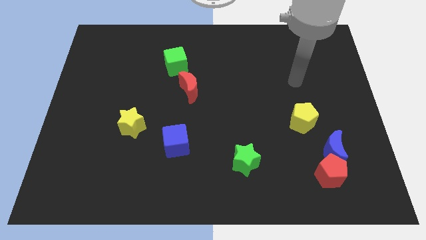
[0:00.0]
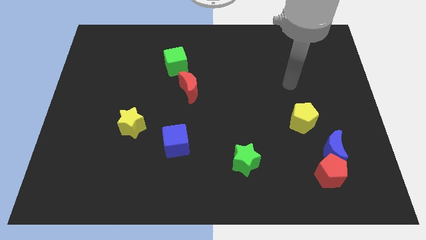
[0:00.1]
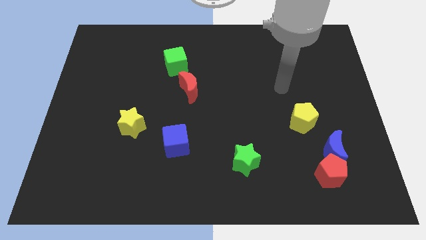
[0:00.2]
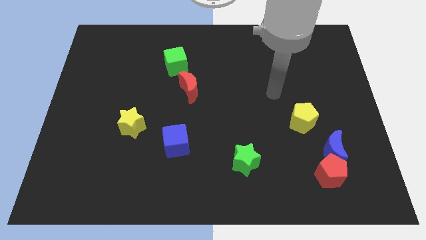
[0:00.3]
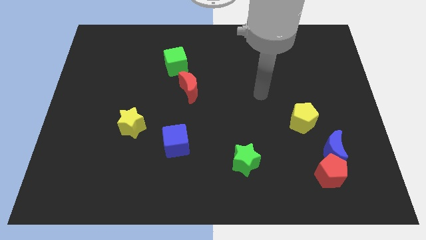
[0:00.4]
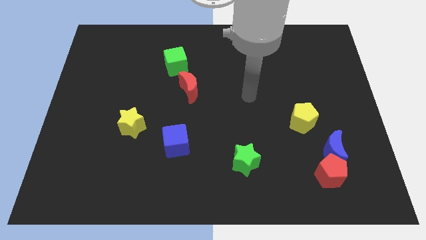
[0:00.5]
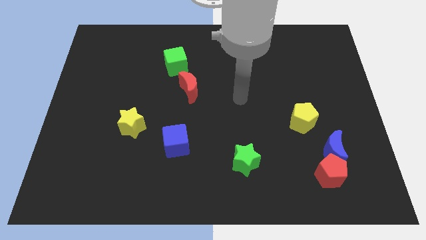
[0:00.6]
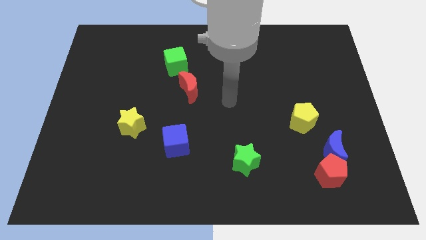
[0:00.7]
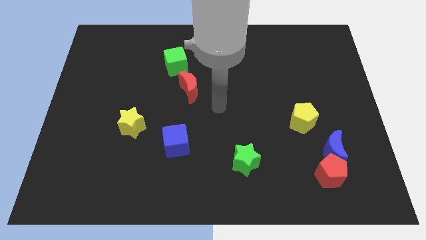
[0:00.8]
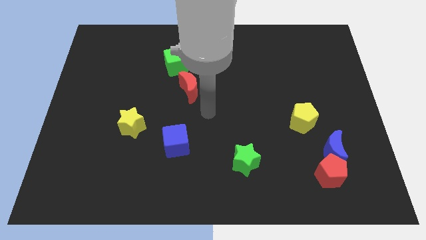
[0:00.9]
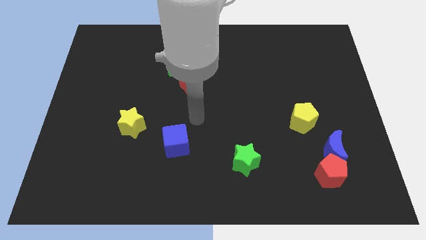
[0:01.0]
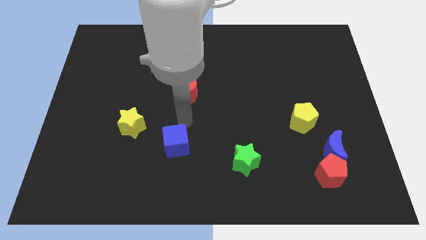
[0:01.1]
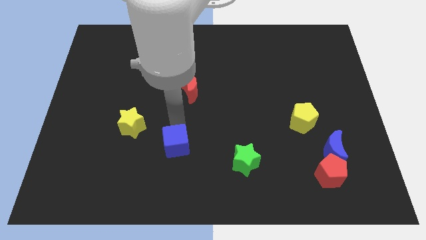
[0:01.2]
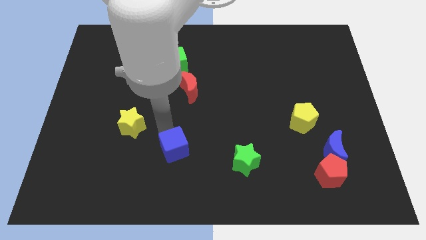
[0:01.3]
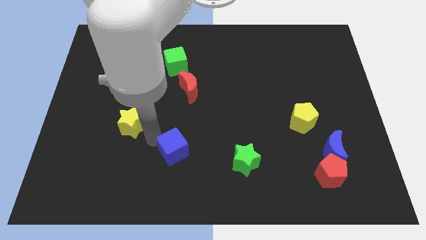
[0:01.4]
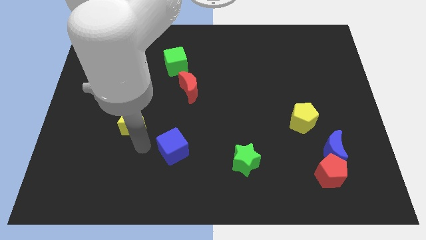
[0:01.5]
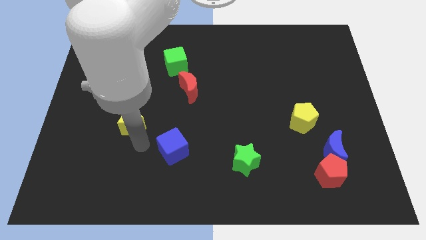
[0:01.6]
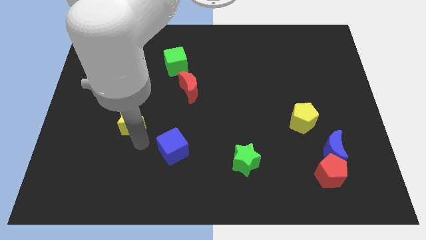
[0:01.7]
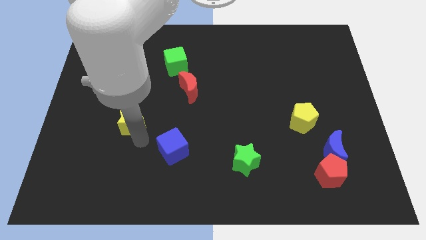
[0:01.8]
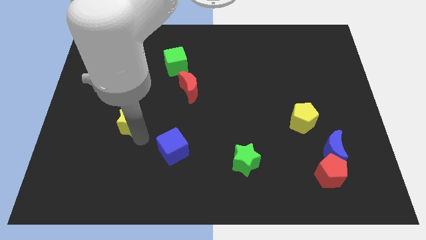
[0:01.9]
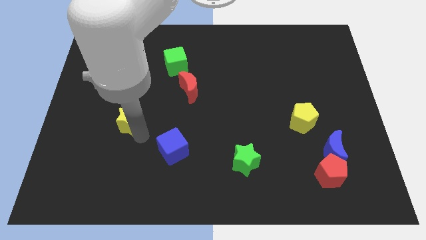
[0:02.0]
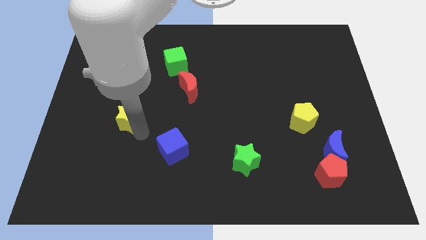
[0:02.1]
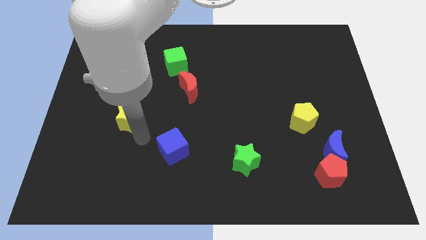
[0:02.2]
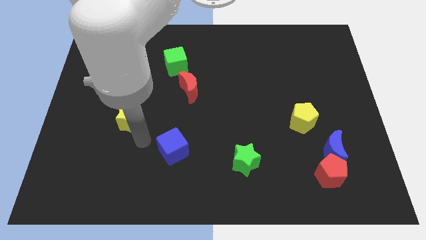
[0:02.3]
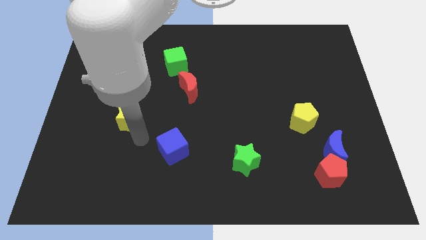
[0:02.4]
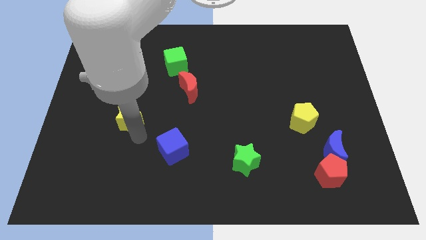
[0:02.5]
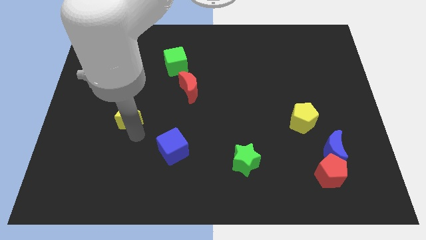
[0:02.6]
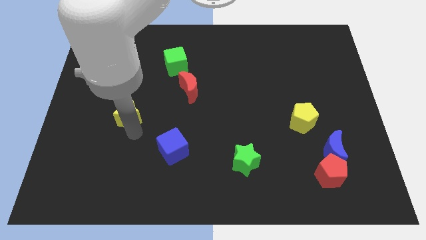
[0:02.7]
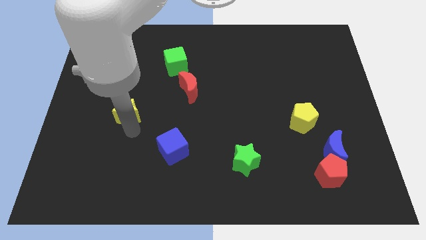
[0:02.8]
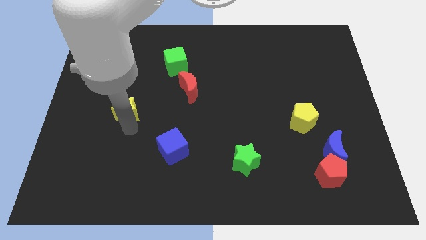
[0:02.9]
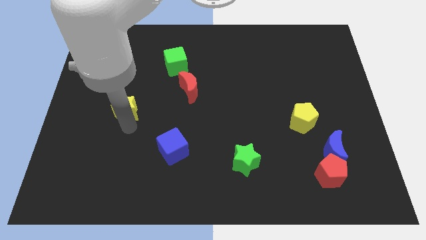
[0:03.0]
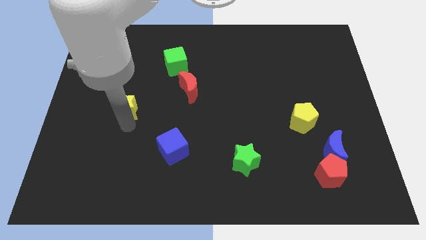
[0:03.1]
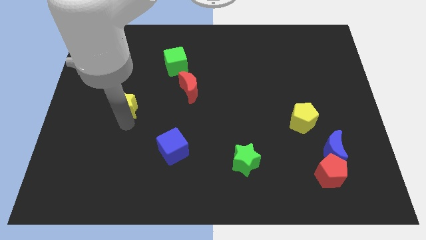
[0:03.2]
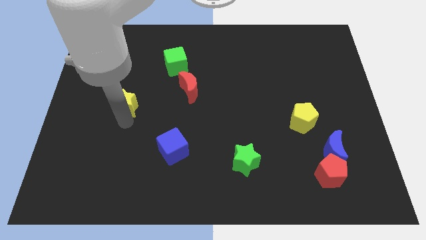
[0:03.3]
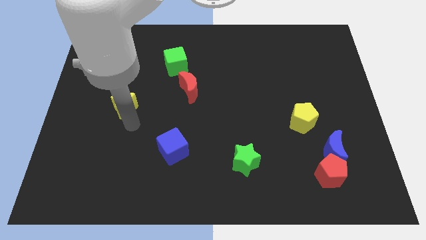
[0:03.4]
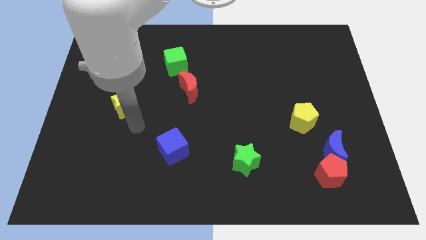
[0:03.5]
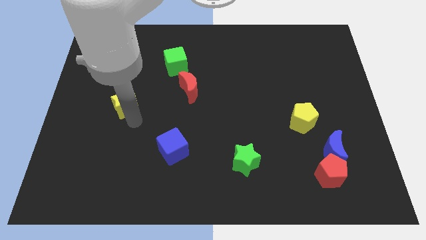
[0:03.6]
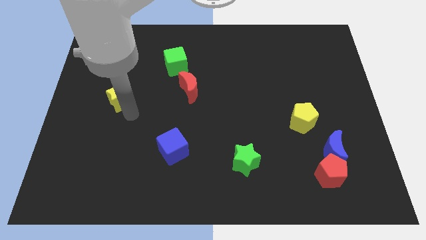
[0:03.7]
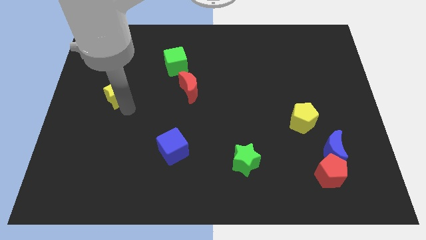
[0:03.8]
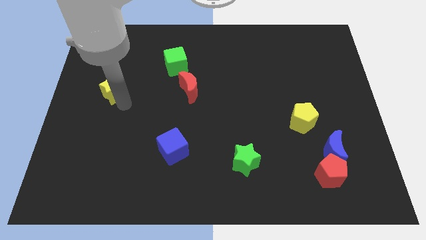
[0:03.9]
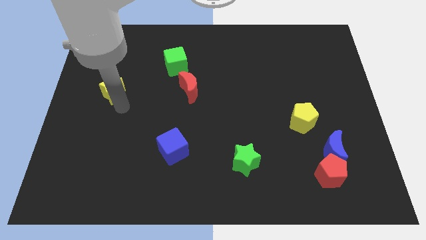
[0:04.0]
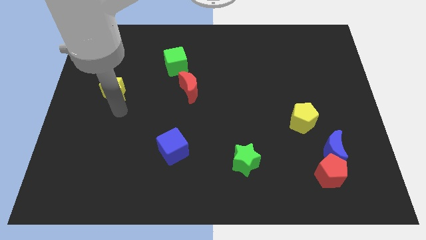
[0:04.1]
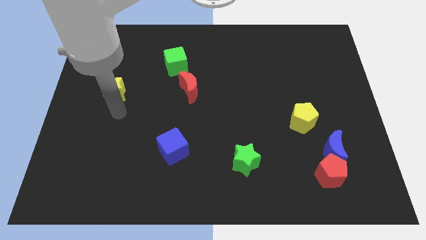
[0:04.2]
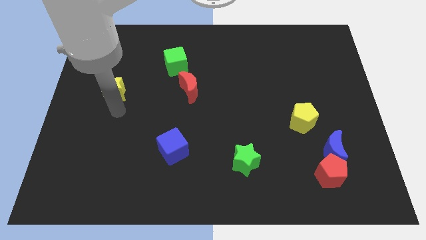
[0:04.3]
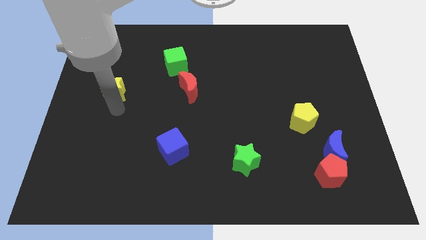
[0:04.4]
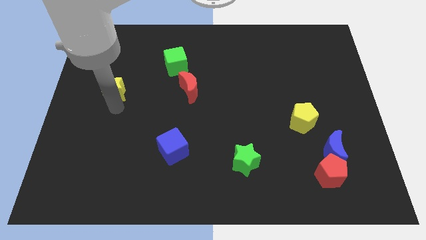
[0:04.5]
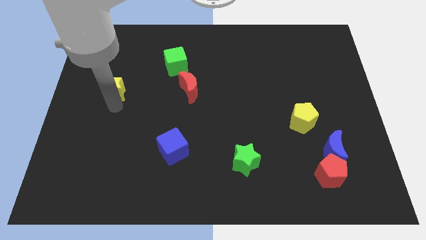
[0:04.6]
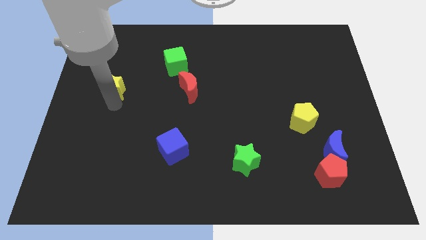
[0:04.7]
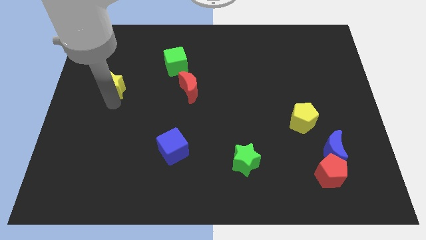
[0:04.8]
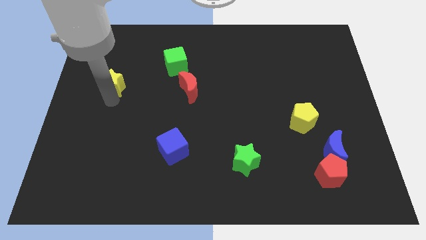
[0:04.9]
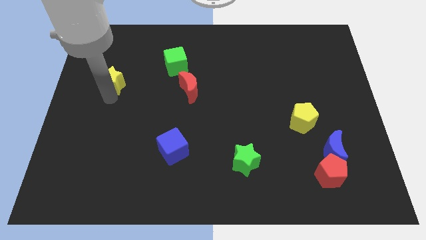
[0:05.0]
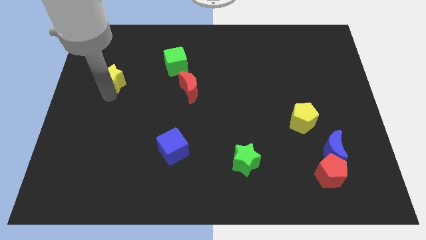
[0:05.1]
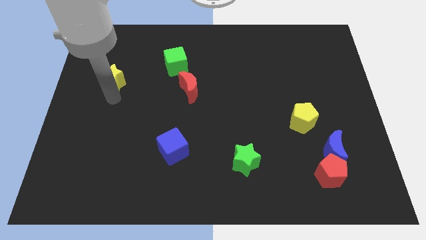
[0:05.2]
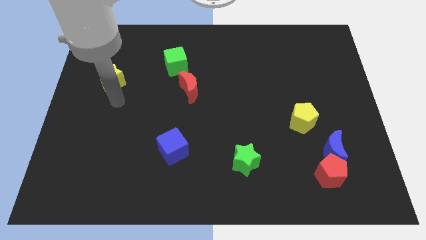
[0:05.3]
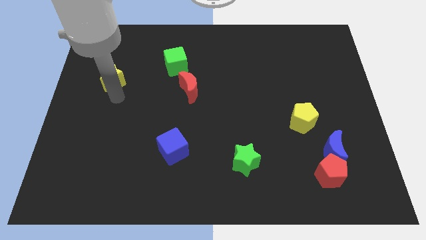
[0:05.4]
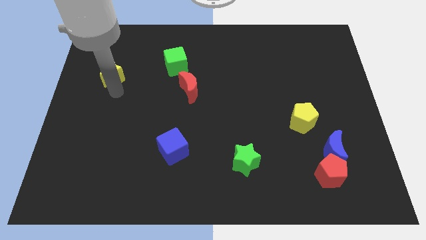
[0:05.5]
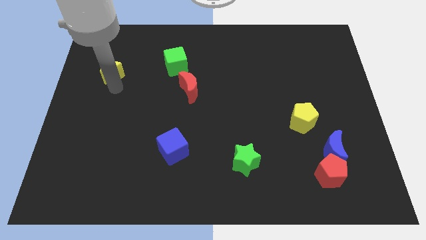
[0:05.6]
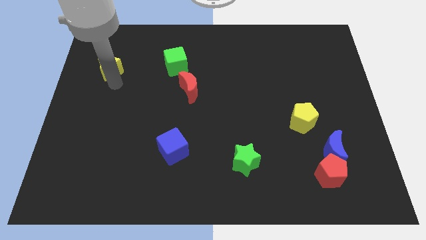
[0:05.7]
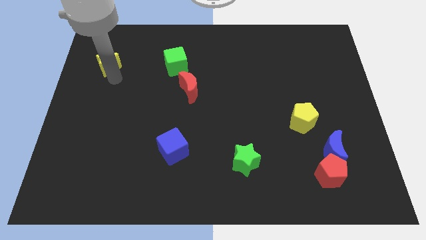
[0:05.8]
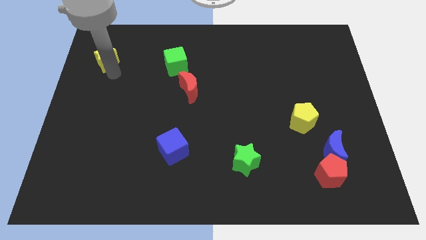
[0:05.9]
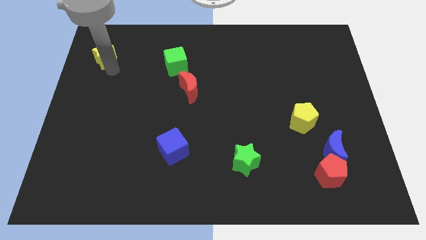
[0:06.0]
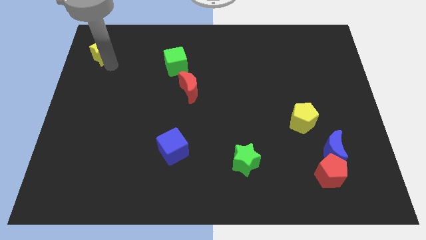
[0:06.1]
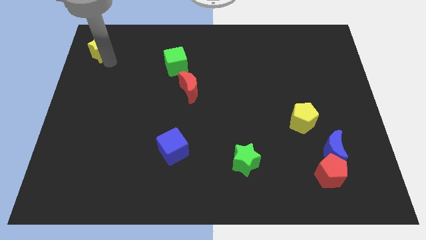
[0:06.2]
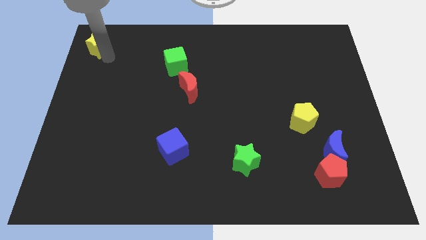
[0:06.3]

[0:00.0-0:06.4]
slide the yellow star to the top left

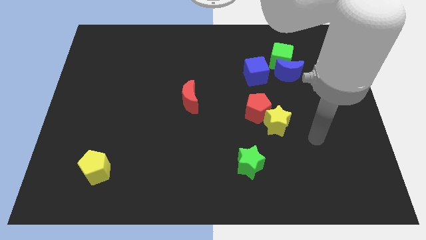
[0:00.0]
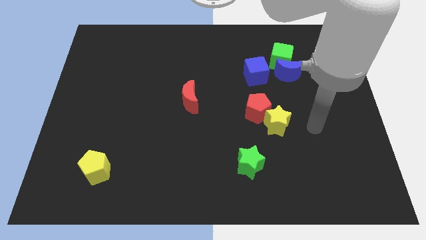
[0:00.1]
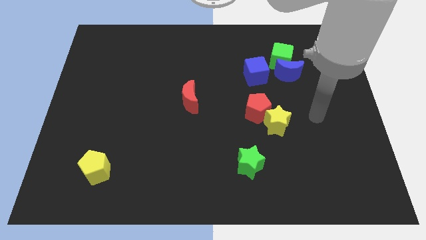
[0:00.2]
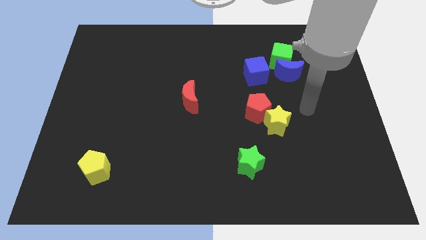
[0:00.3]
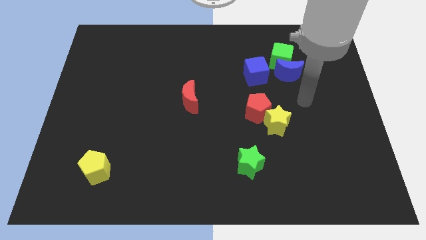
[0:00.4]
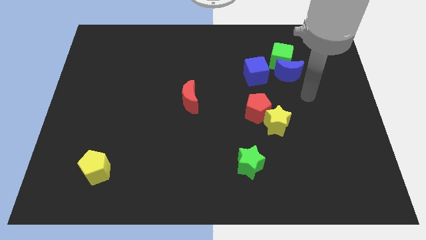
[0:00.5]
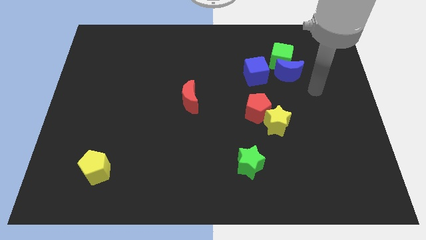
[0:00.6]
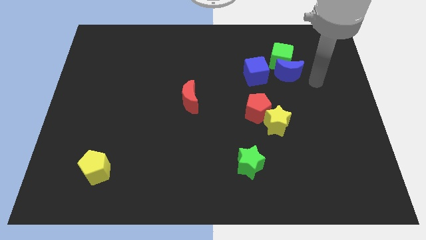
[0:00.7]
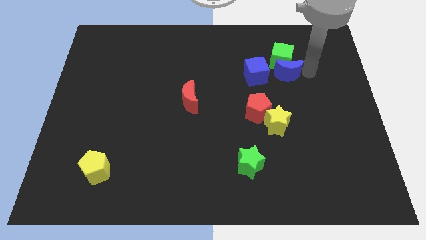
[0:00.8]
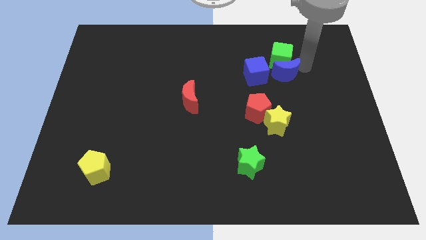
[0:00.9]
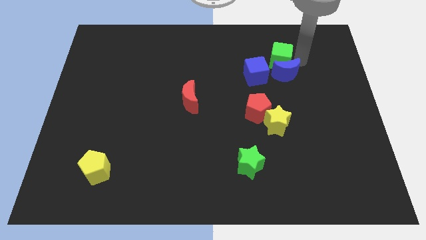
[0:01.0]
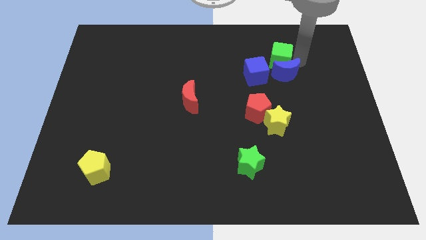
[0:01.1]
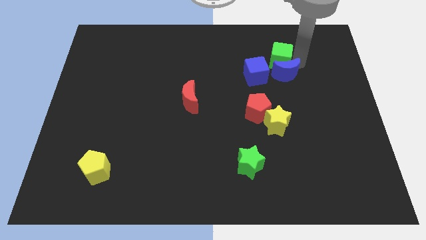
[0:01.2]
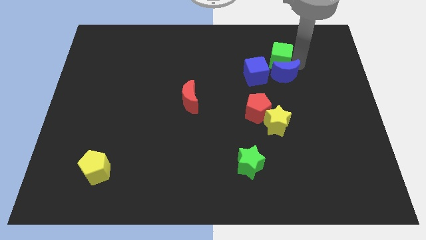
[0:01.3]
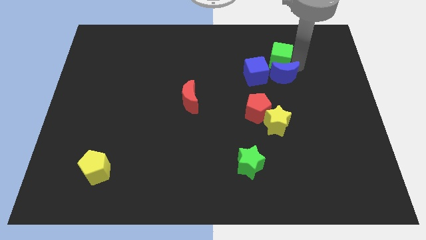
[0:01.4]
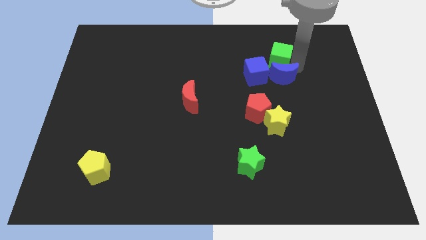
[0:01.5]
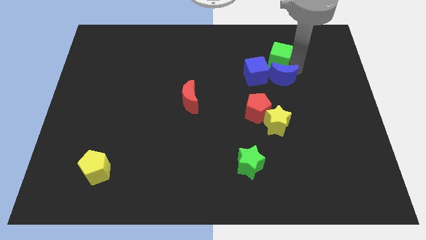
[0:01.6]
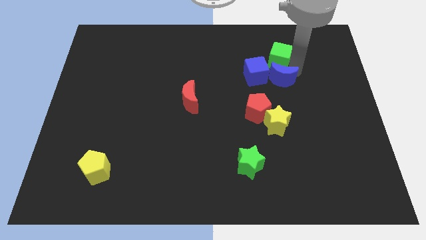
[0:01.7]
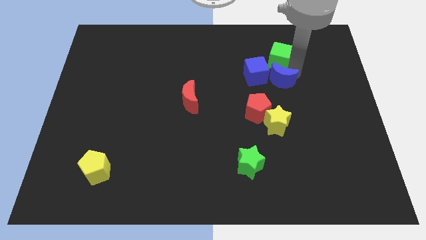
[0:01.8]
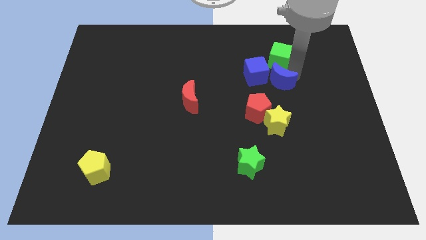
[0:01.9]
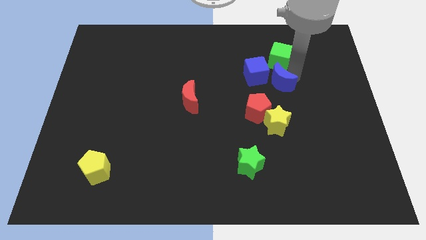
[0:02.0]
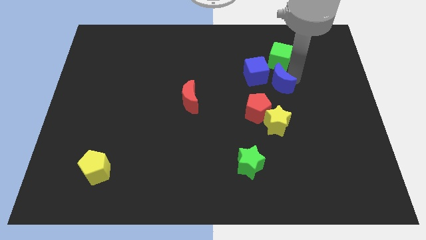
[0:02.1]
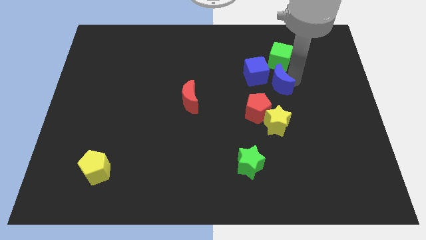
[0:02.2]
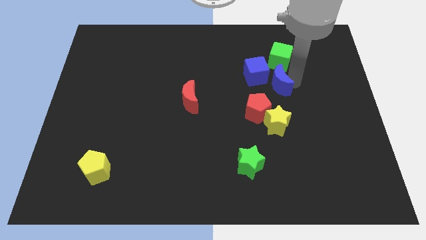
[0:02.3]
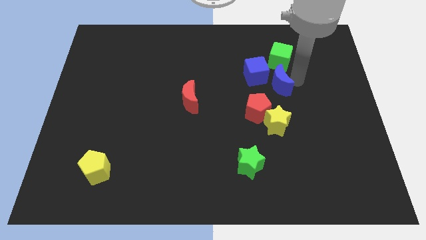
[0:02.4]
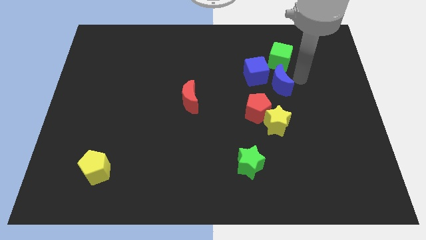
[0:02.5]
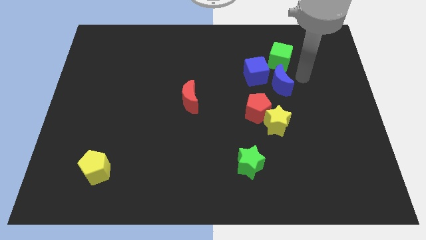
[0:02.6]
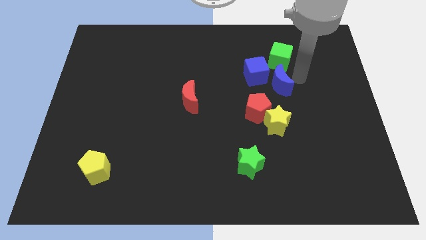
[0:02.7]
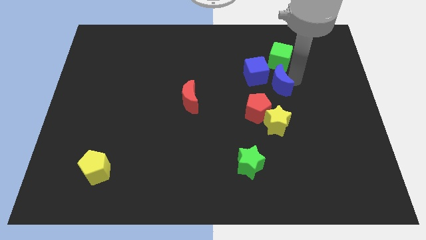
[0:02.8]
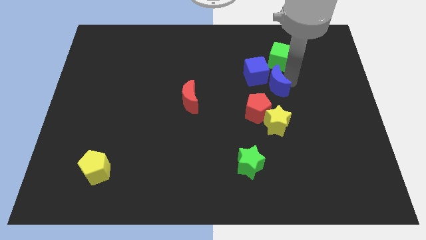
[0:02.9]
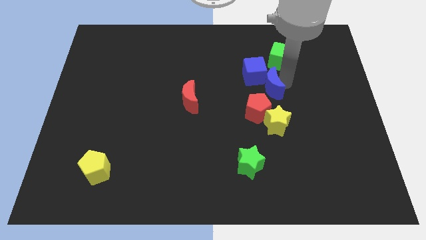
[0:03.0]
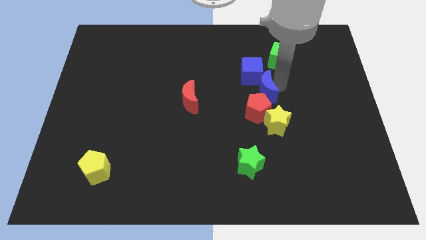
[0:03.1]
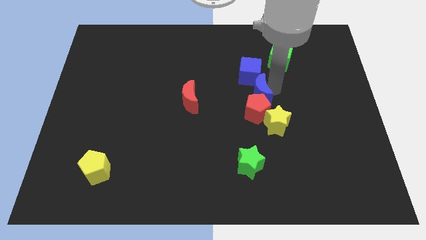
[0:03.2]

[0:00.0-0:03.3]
move the blue moon to the middle
